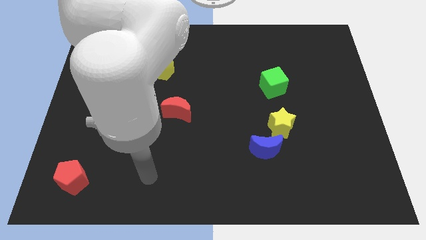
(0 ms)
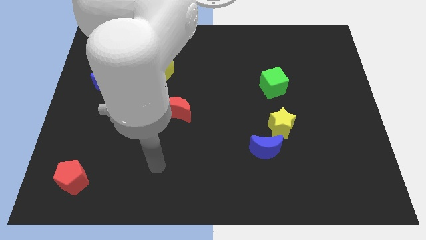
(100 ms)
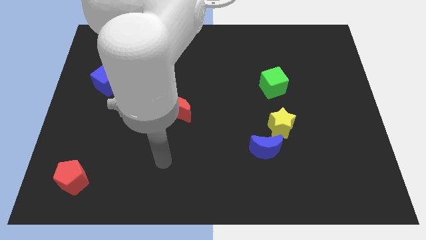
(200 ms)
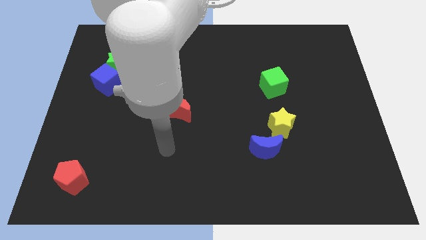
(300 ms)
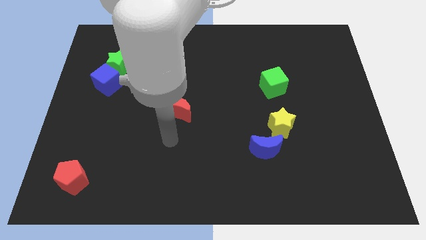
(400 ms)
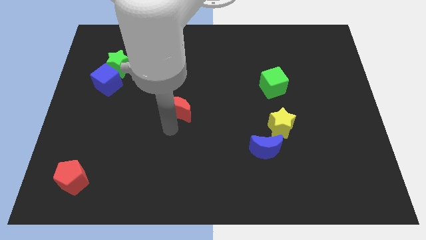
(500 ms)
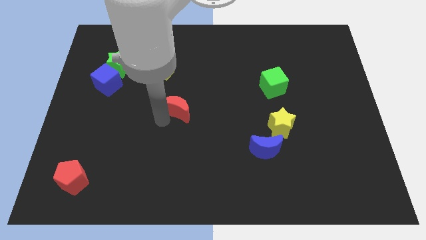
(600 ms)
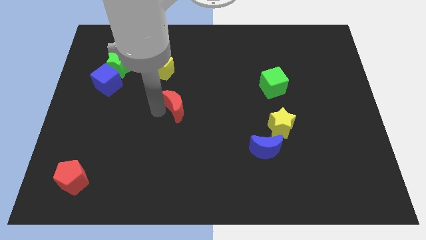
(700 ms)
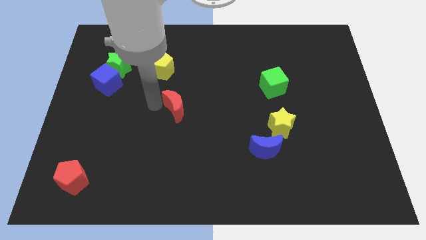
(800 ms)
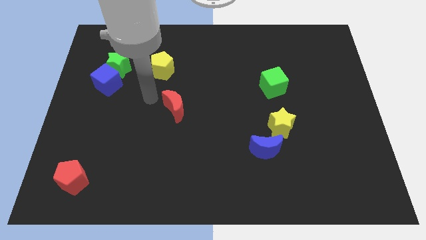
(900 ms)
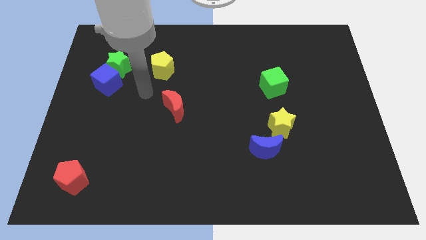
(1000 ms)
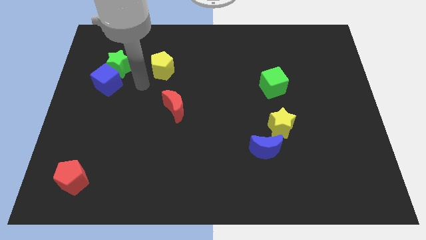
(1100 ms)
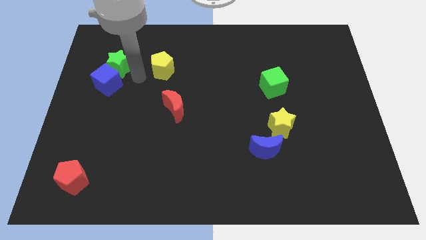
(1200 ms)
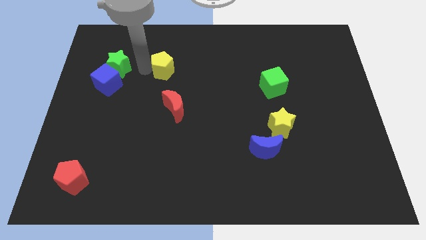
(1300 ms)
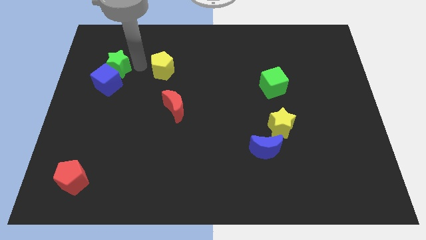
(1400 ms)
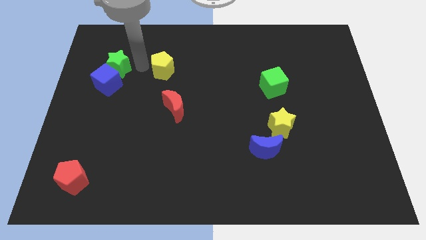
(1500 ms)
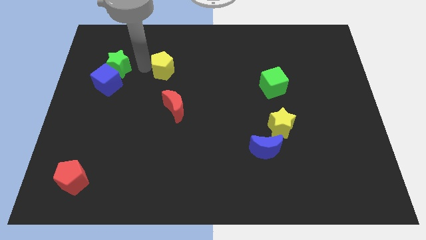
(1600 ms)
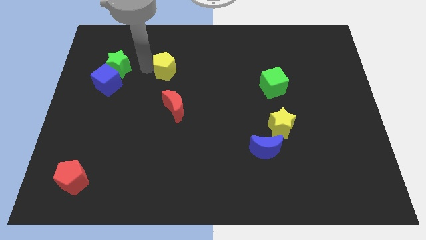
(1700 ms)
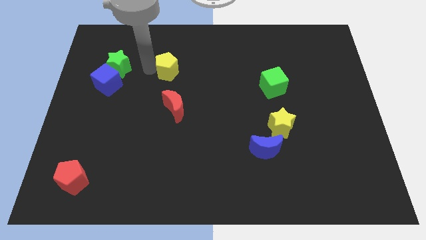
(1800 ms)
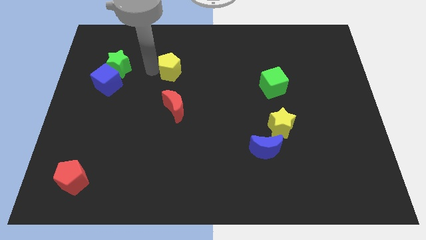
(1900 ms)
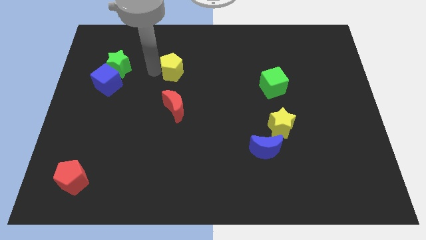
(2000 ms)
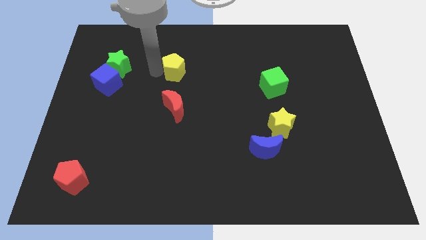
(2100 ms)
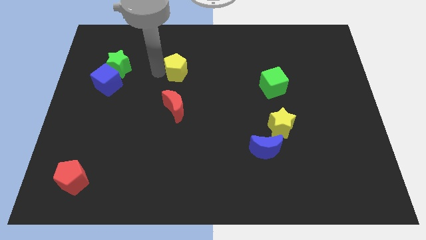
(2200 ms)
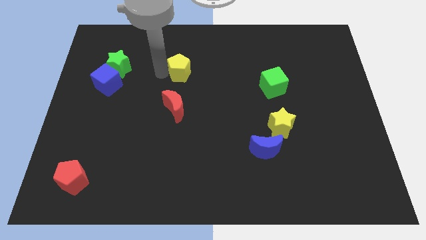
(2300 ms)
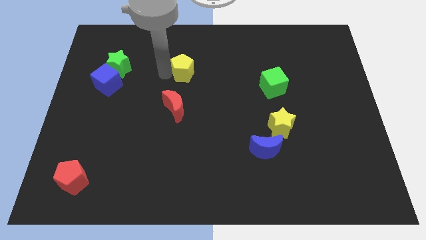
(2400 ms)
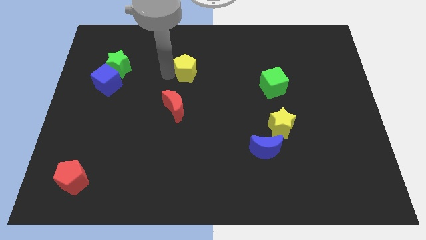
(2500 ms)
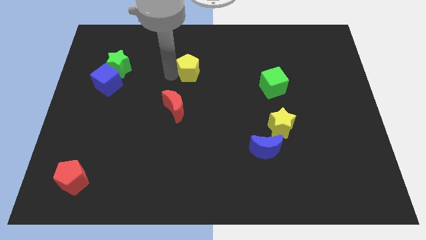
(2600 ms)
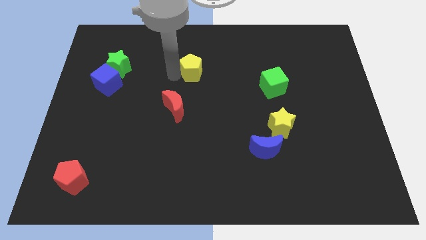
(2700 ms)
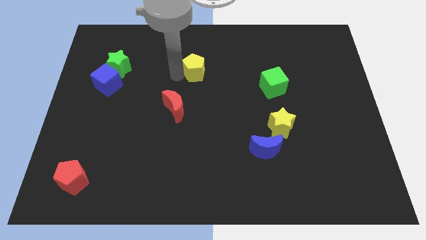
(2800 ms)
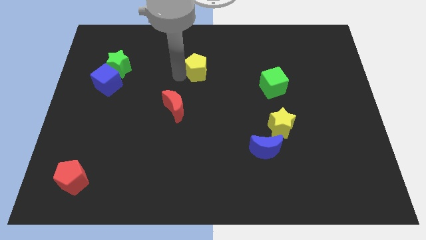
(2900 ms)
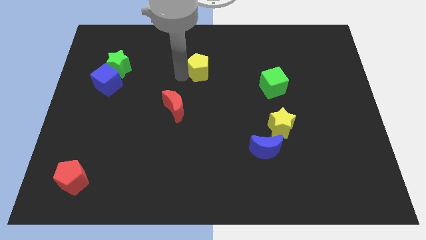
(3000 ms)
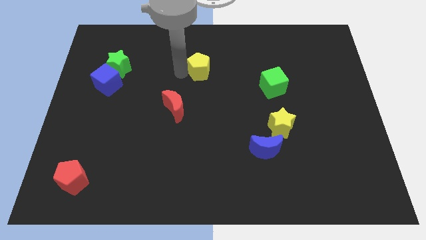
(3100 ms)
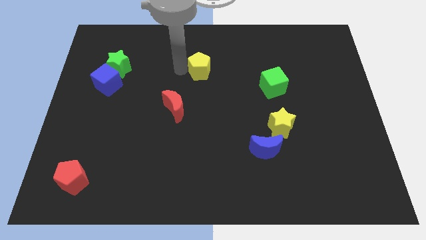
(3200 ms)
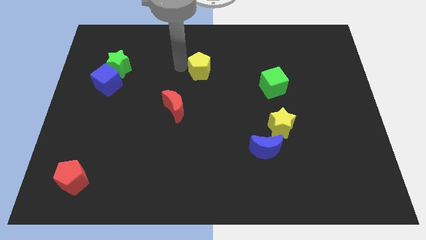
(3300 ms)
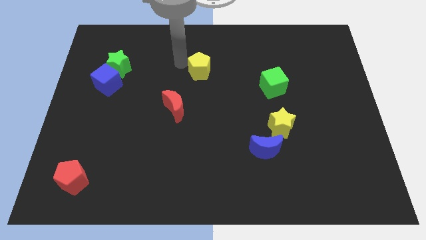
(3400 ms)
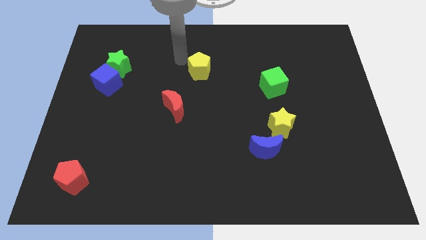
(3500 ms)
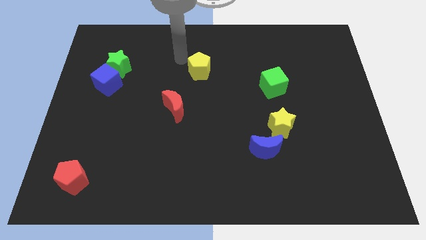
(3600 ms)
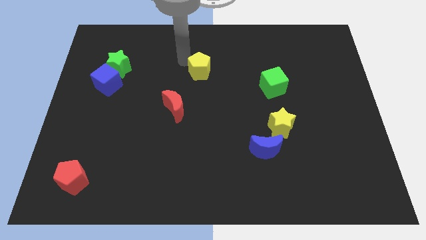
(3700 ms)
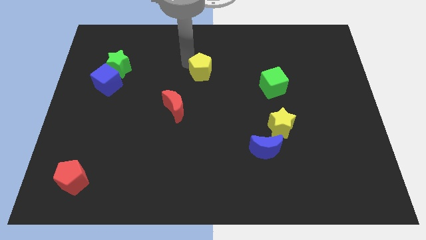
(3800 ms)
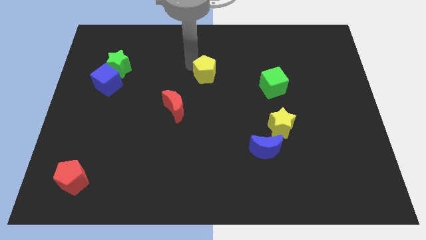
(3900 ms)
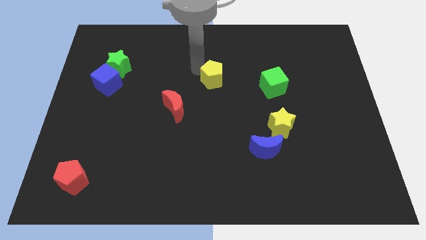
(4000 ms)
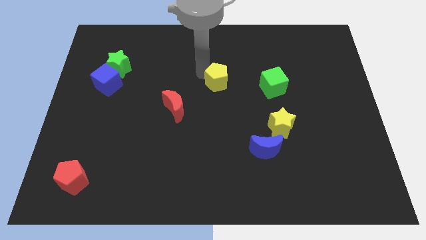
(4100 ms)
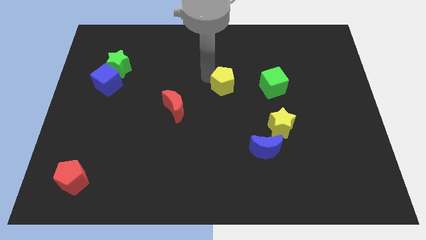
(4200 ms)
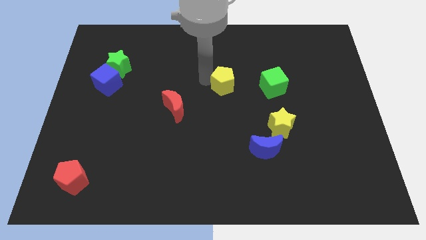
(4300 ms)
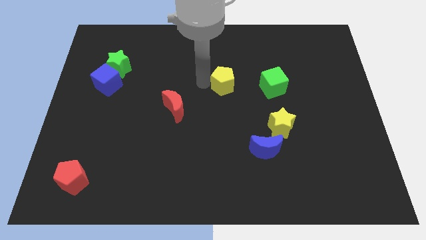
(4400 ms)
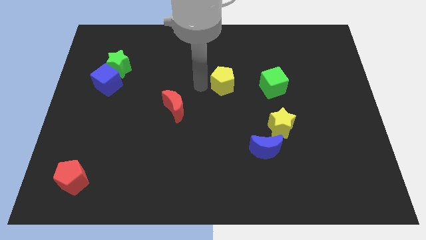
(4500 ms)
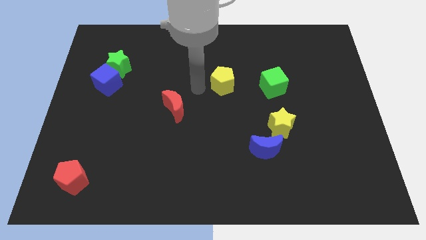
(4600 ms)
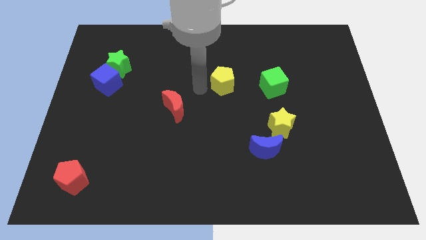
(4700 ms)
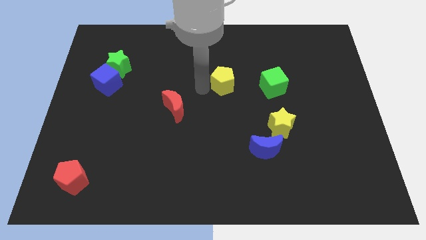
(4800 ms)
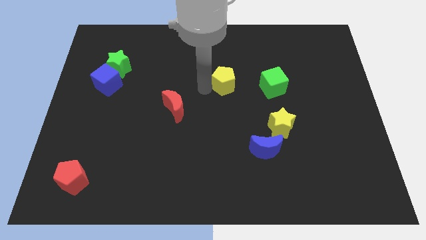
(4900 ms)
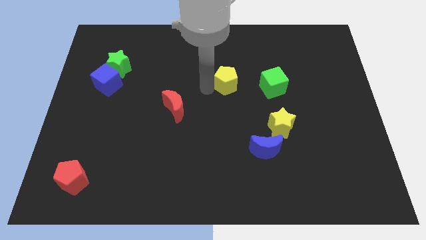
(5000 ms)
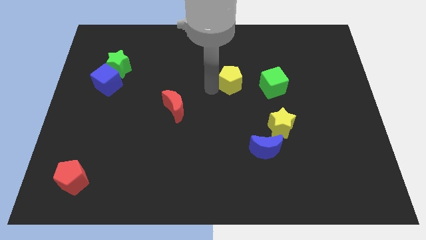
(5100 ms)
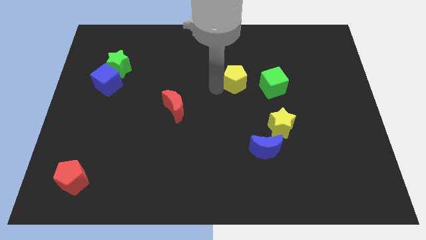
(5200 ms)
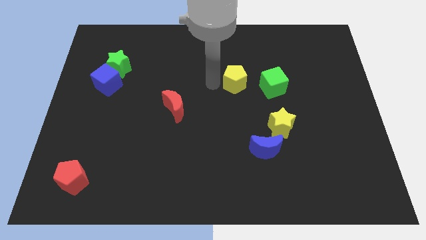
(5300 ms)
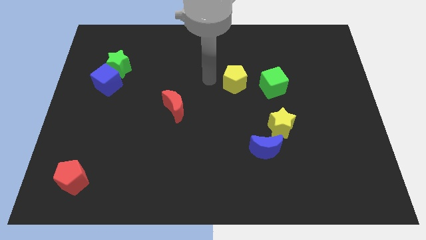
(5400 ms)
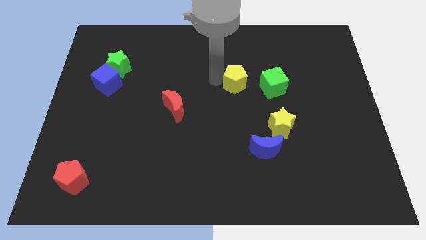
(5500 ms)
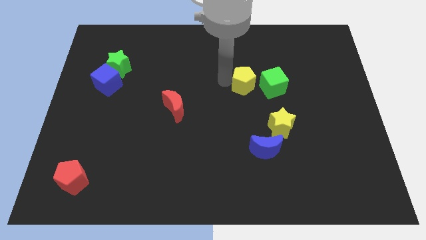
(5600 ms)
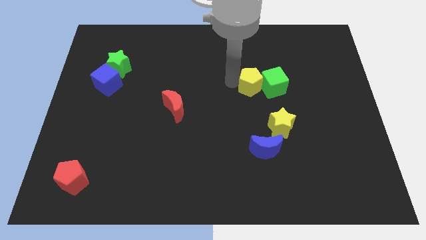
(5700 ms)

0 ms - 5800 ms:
put the yellow pentagon to the green cube
